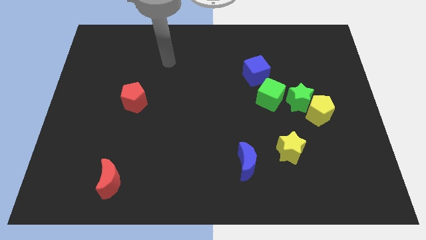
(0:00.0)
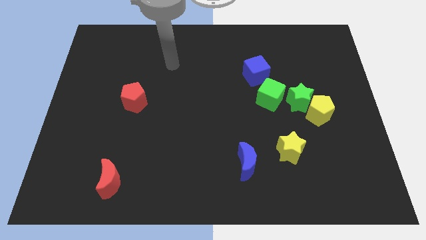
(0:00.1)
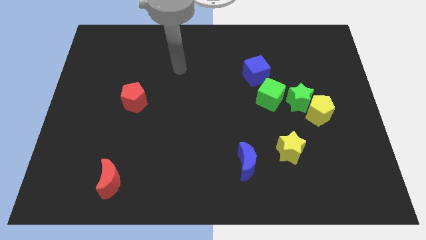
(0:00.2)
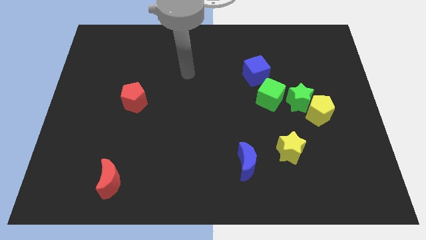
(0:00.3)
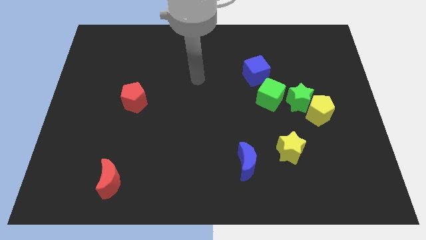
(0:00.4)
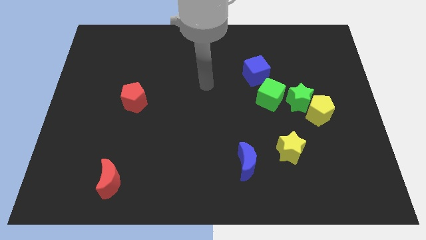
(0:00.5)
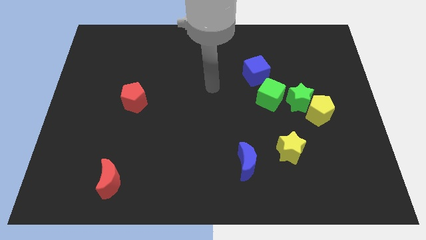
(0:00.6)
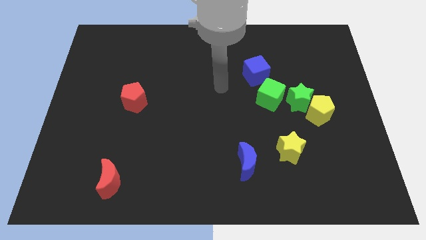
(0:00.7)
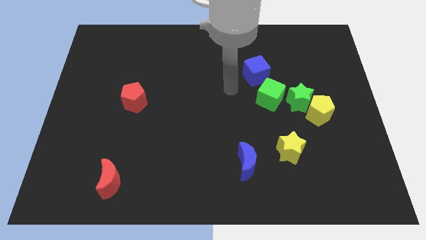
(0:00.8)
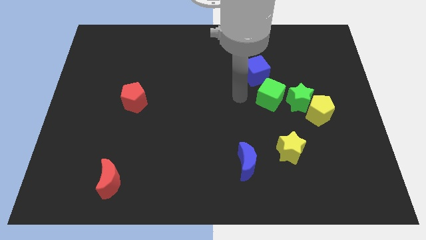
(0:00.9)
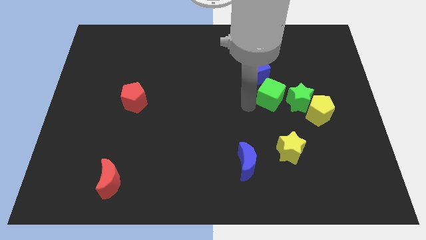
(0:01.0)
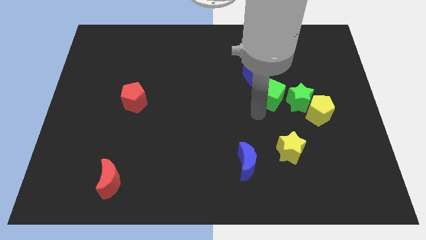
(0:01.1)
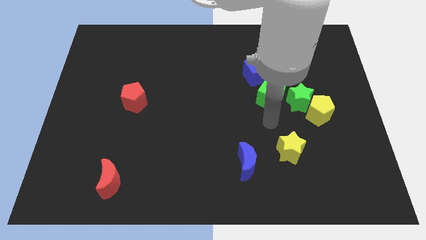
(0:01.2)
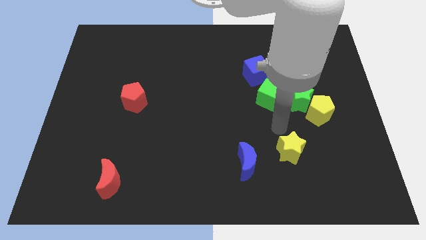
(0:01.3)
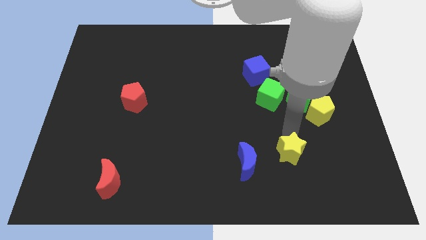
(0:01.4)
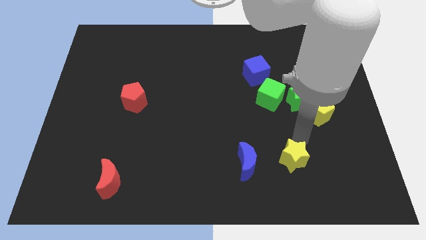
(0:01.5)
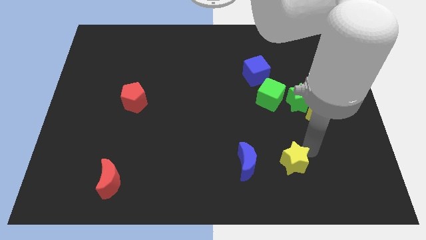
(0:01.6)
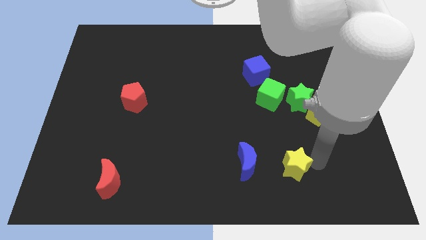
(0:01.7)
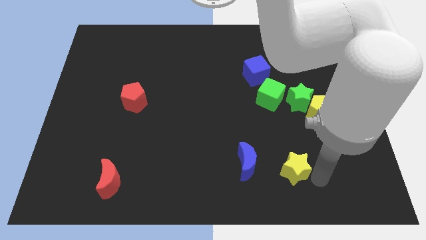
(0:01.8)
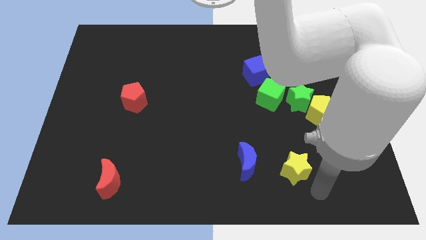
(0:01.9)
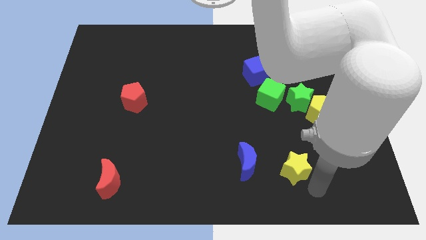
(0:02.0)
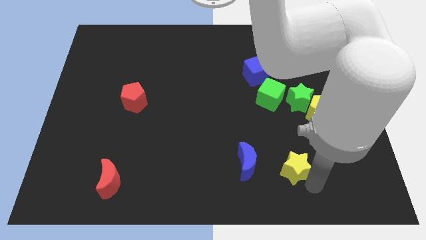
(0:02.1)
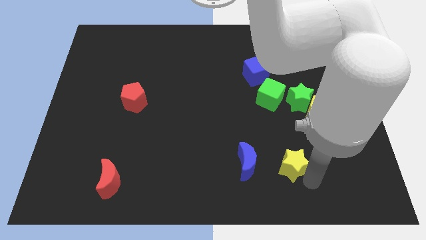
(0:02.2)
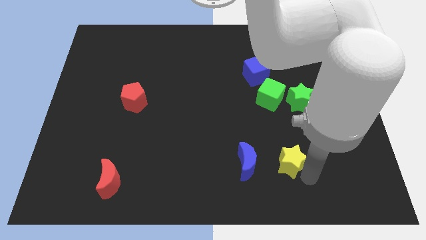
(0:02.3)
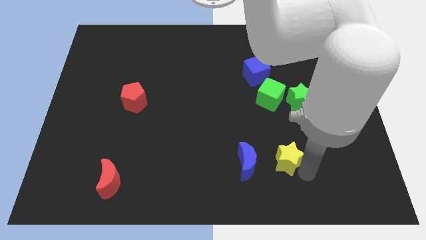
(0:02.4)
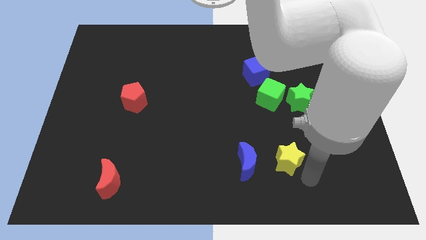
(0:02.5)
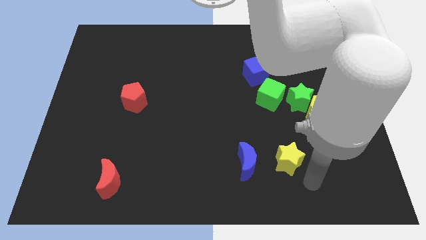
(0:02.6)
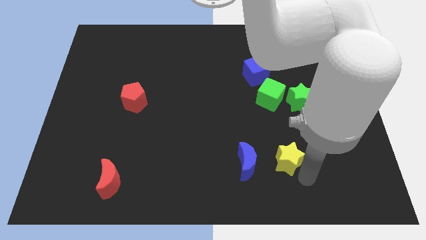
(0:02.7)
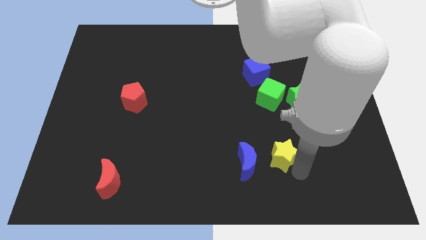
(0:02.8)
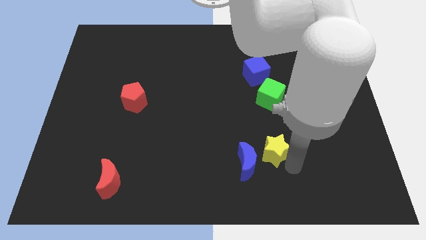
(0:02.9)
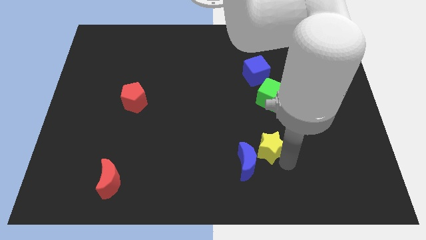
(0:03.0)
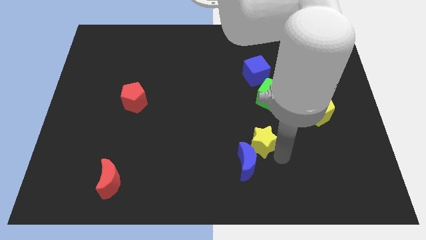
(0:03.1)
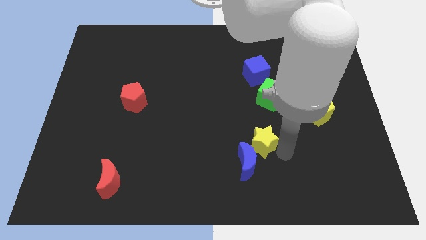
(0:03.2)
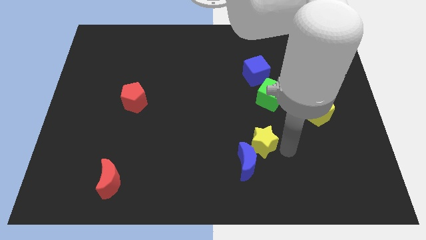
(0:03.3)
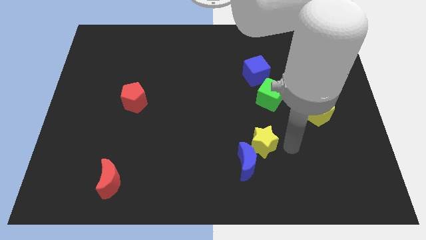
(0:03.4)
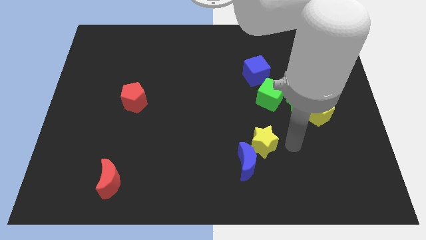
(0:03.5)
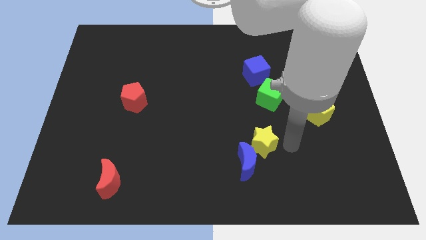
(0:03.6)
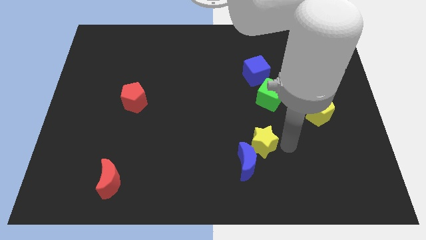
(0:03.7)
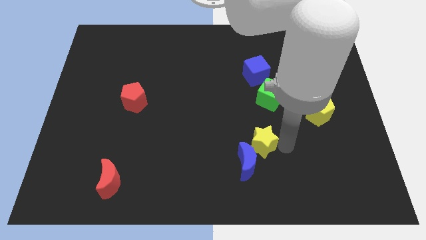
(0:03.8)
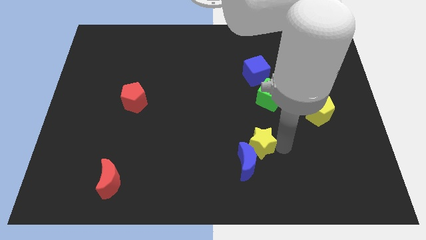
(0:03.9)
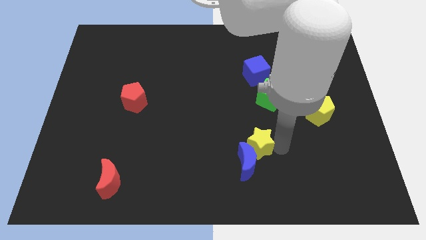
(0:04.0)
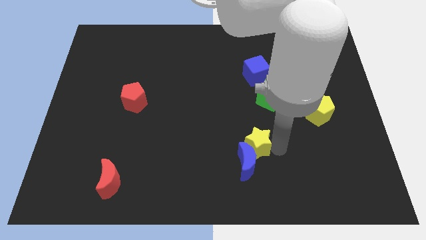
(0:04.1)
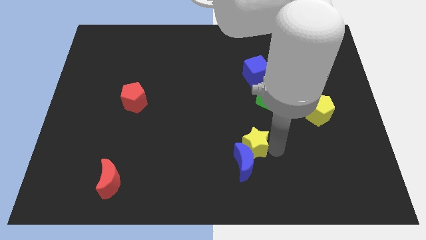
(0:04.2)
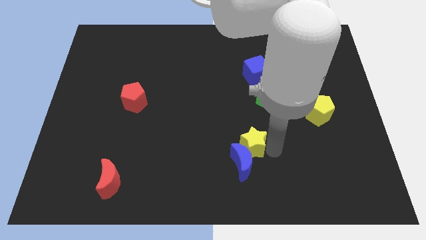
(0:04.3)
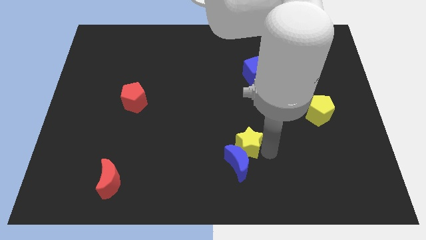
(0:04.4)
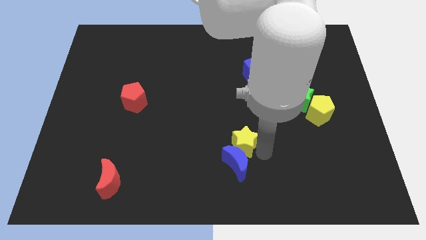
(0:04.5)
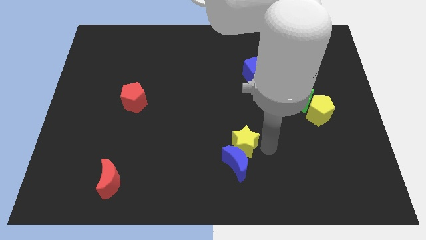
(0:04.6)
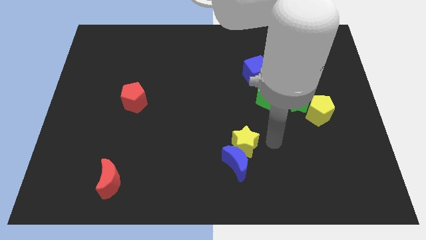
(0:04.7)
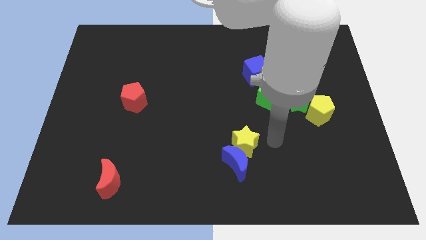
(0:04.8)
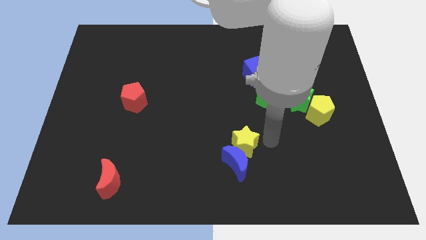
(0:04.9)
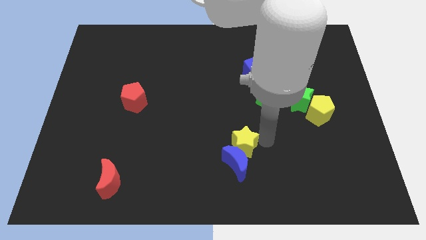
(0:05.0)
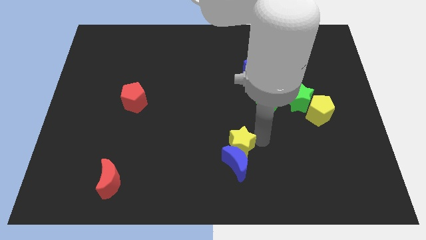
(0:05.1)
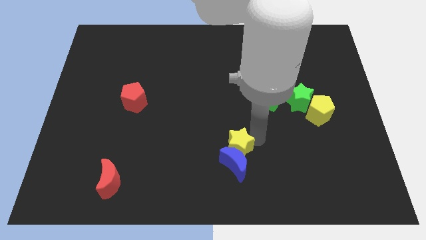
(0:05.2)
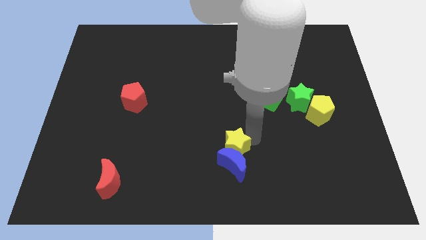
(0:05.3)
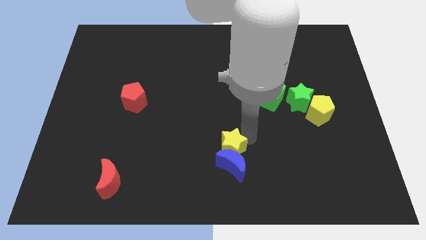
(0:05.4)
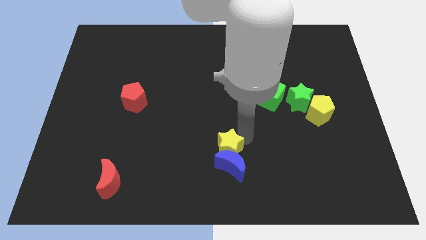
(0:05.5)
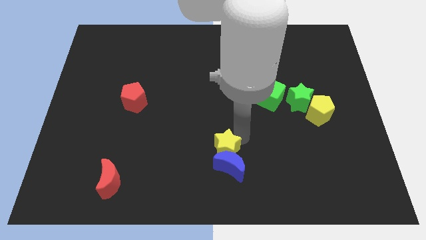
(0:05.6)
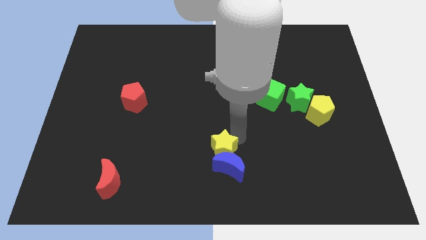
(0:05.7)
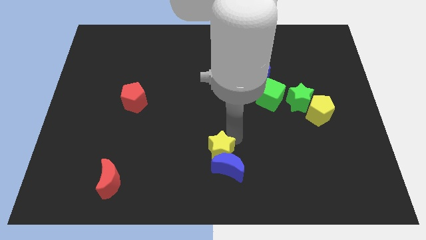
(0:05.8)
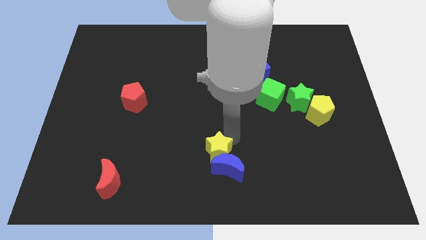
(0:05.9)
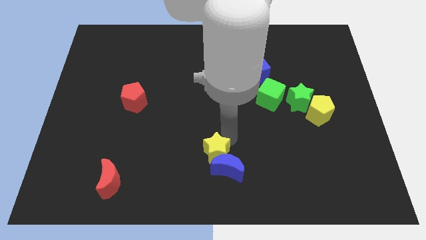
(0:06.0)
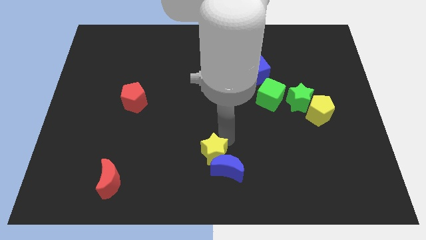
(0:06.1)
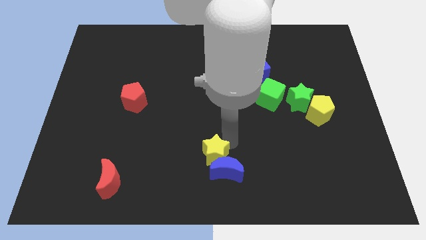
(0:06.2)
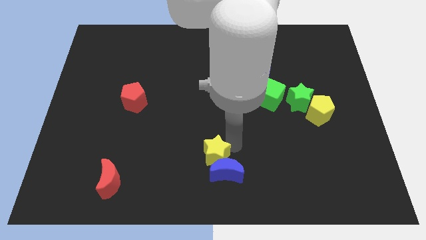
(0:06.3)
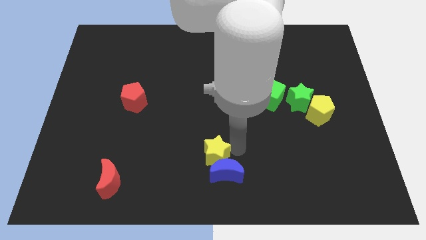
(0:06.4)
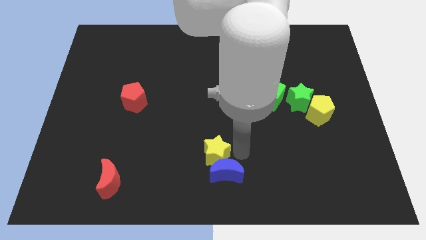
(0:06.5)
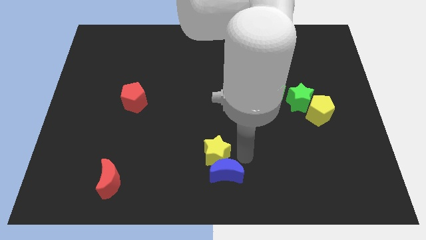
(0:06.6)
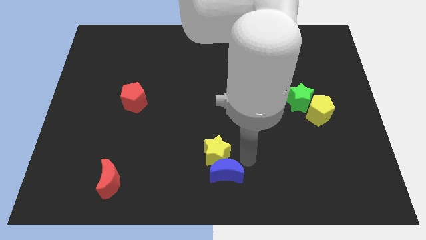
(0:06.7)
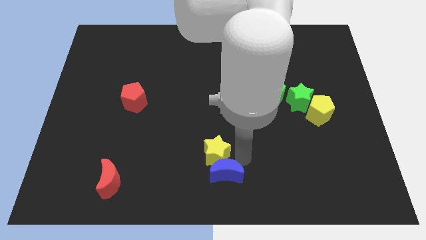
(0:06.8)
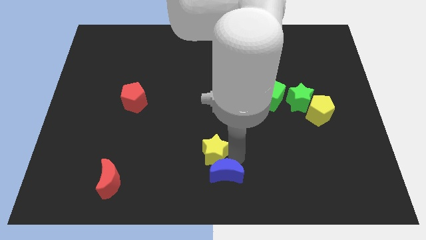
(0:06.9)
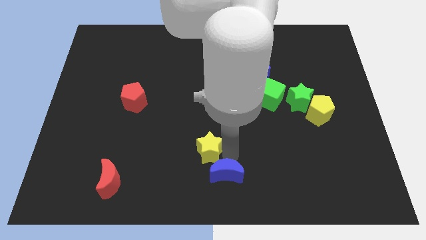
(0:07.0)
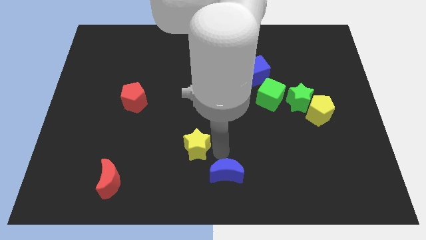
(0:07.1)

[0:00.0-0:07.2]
push the yellow star to the left

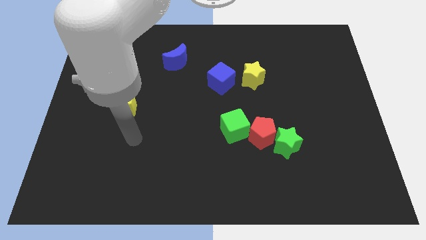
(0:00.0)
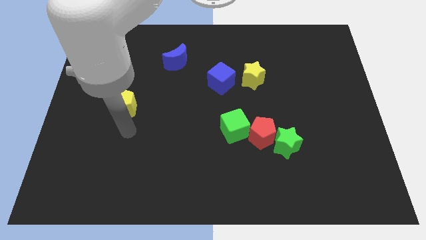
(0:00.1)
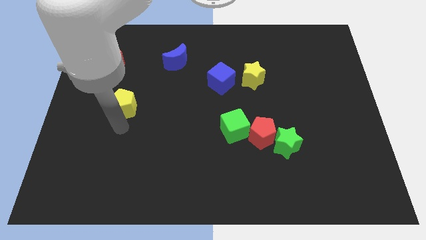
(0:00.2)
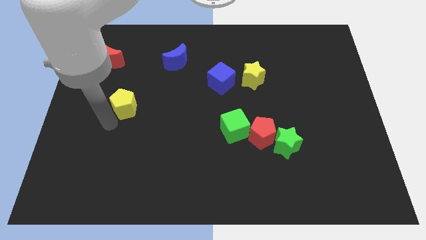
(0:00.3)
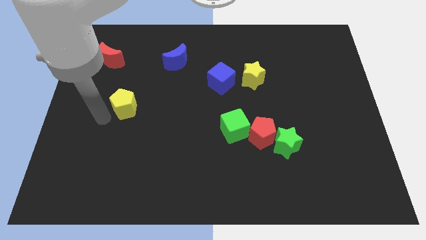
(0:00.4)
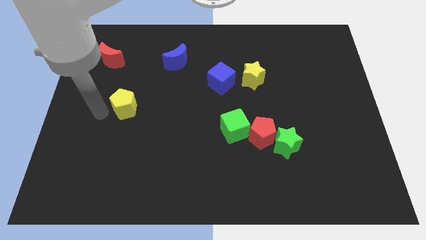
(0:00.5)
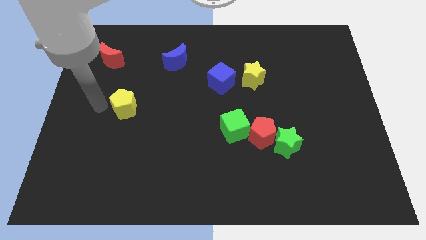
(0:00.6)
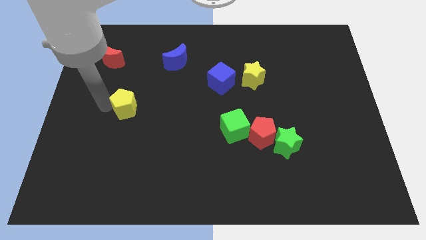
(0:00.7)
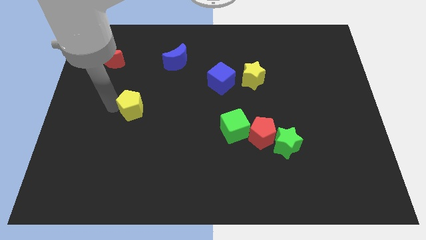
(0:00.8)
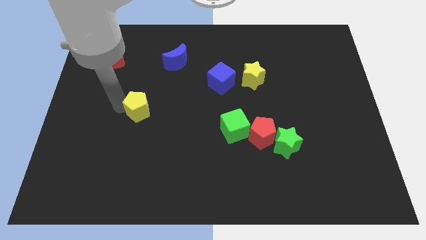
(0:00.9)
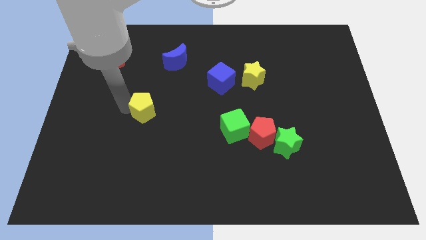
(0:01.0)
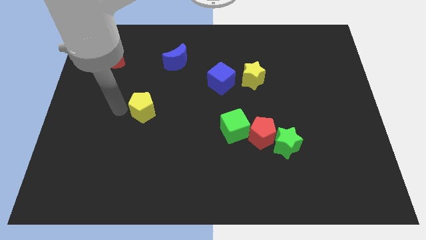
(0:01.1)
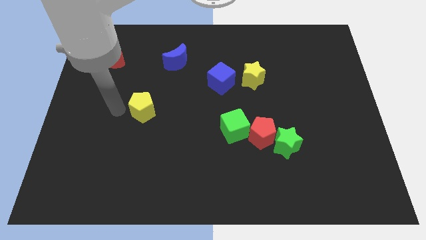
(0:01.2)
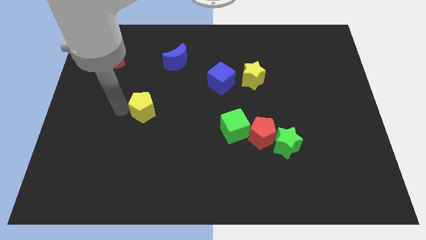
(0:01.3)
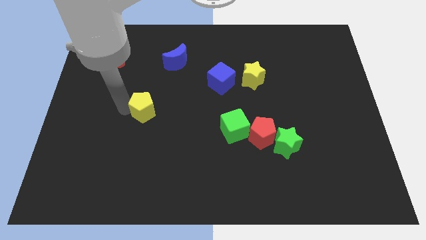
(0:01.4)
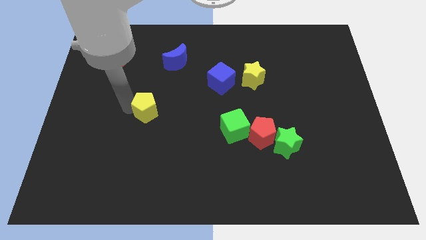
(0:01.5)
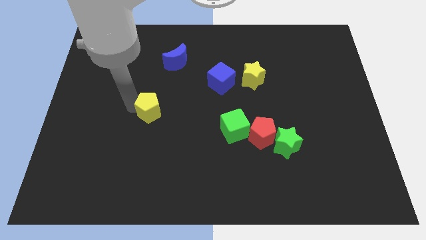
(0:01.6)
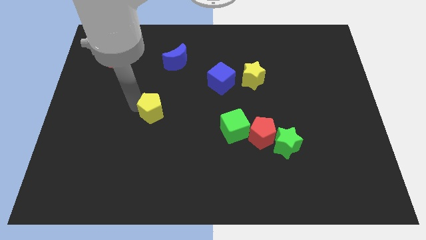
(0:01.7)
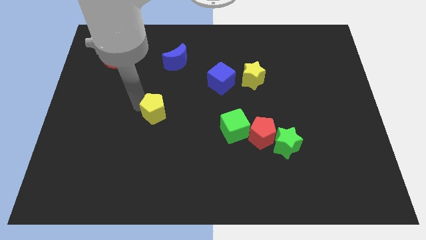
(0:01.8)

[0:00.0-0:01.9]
move the yellow pentagon right a little bit
